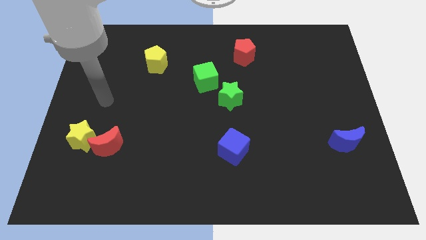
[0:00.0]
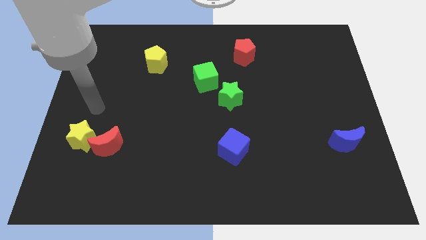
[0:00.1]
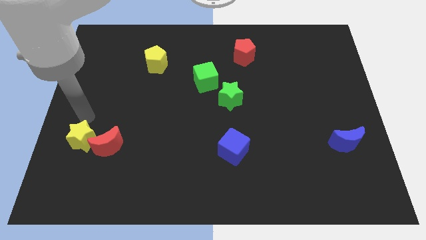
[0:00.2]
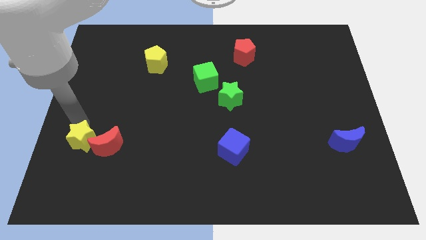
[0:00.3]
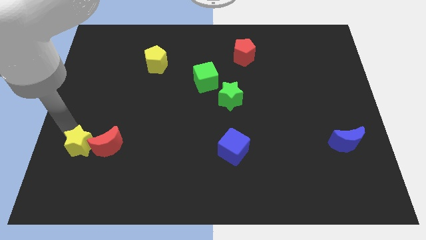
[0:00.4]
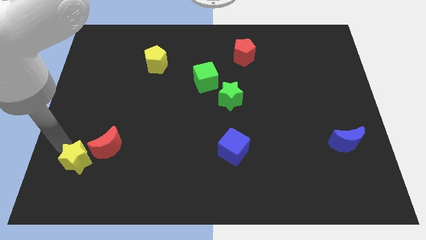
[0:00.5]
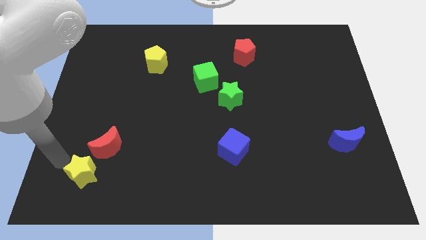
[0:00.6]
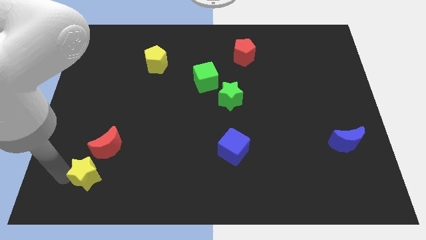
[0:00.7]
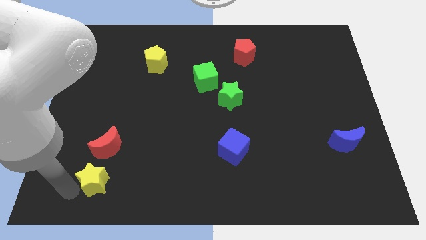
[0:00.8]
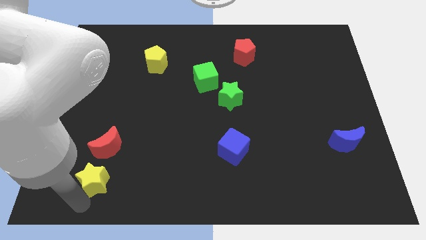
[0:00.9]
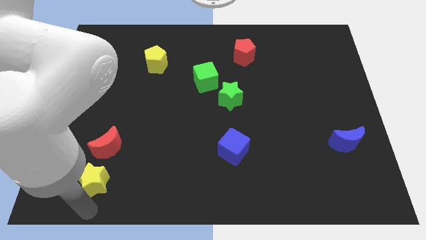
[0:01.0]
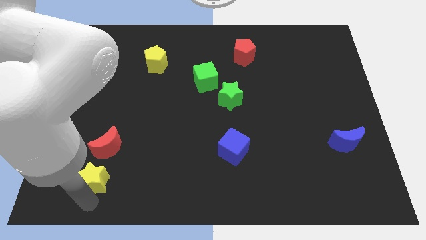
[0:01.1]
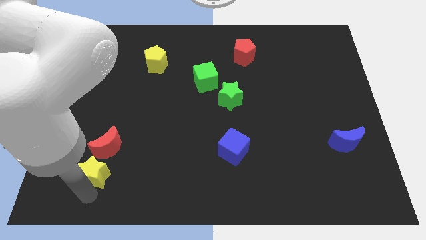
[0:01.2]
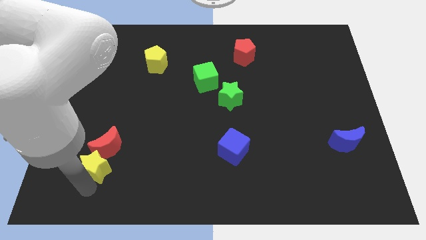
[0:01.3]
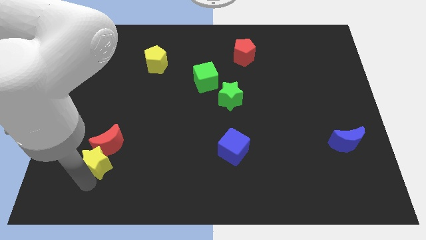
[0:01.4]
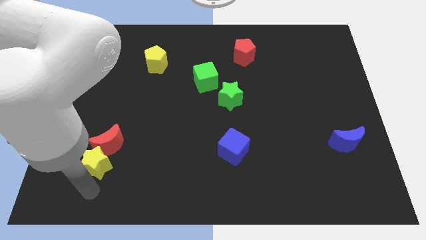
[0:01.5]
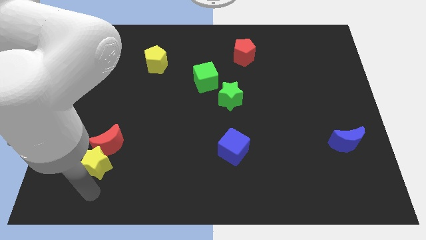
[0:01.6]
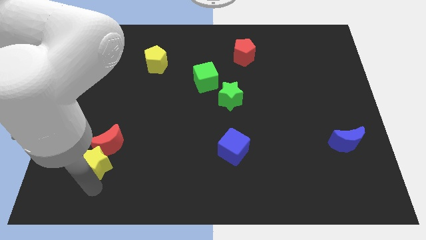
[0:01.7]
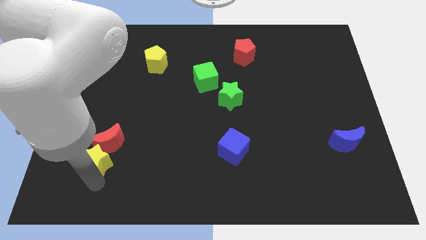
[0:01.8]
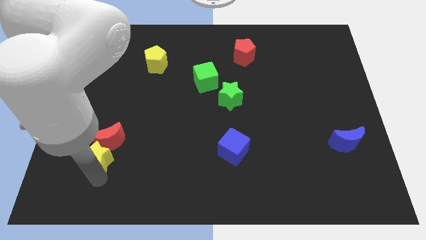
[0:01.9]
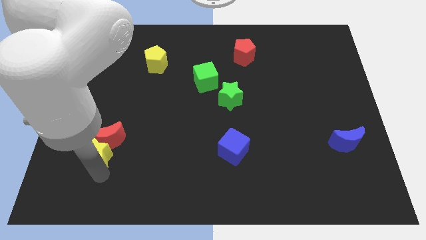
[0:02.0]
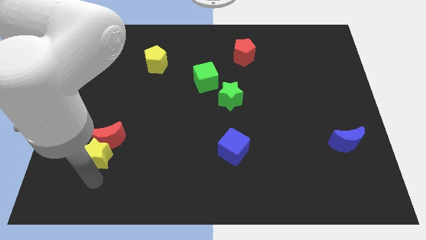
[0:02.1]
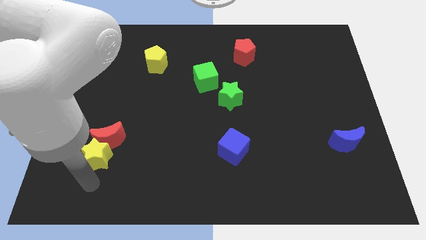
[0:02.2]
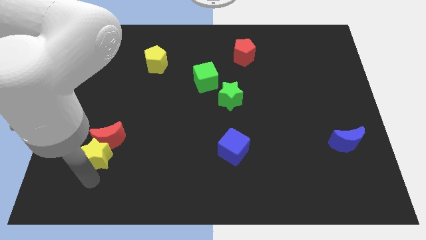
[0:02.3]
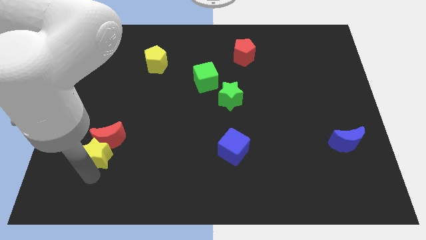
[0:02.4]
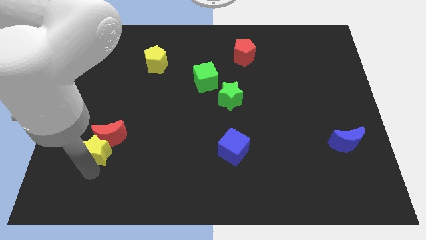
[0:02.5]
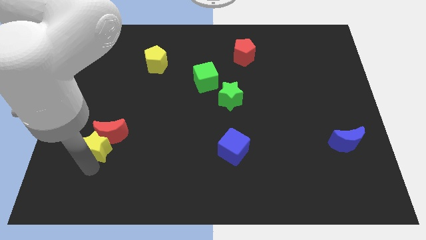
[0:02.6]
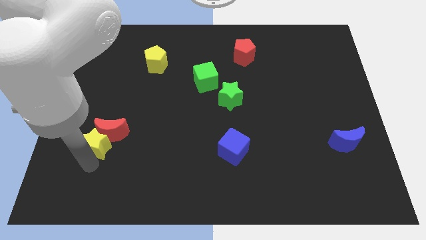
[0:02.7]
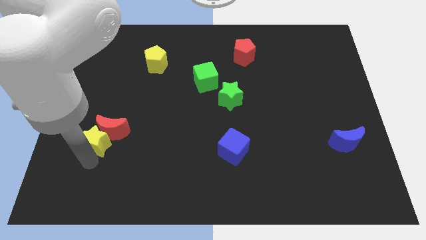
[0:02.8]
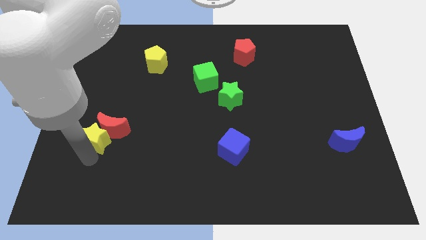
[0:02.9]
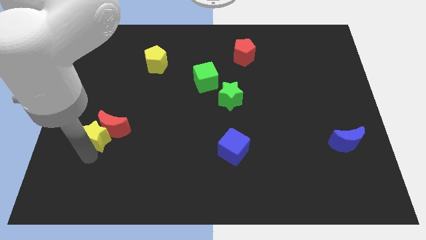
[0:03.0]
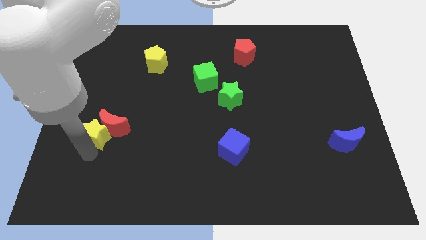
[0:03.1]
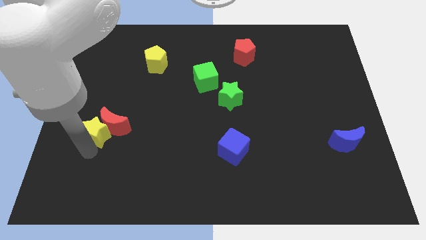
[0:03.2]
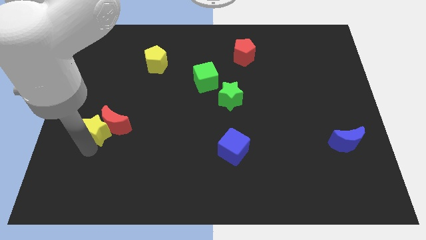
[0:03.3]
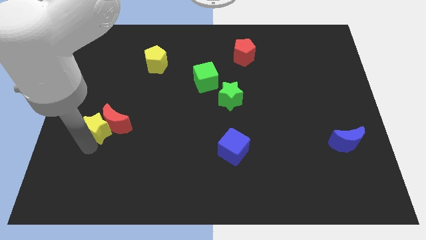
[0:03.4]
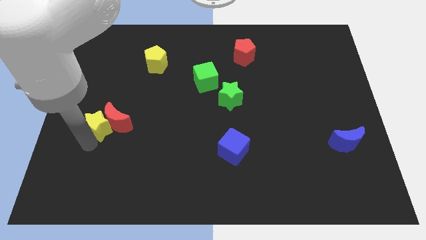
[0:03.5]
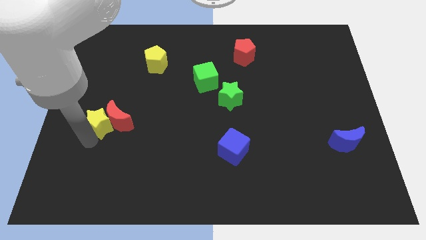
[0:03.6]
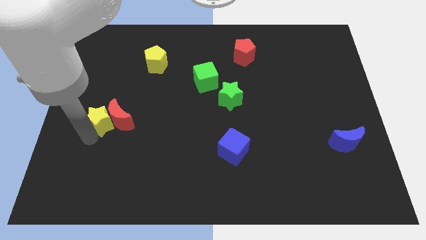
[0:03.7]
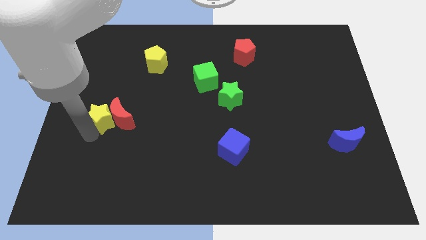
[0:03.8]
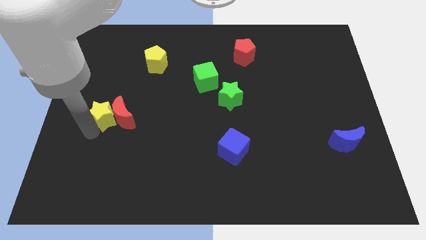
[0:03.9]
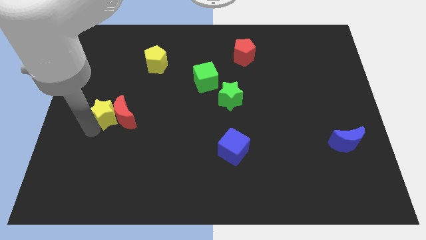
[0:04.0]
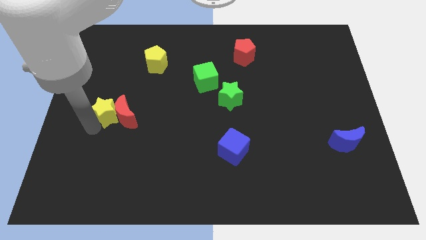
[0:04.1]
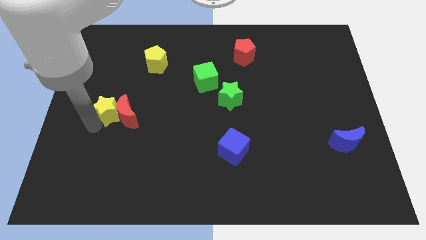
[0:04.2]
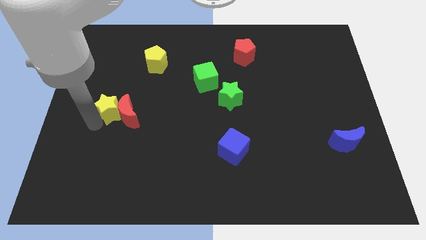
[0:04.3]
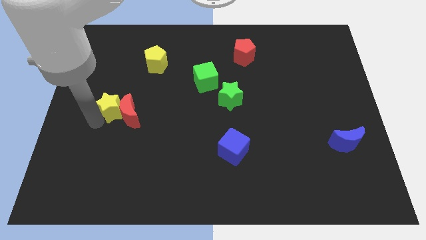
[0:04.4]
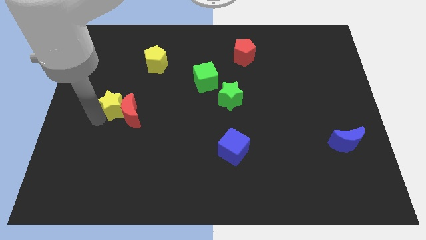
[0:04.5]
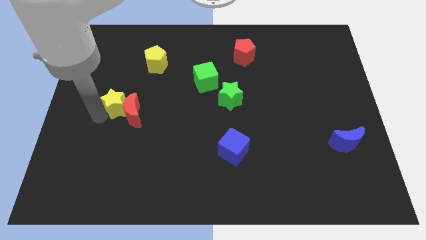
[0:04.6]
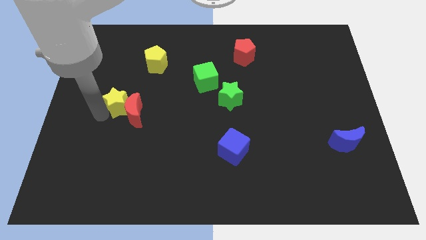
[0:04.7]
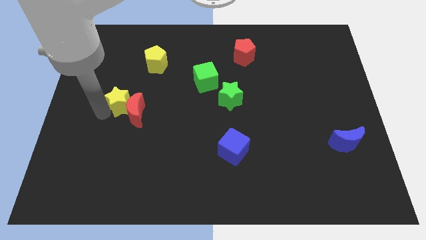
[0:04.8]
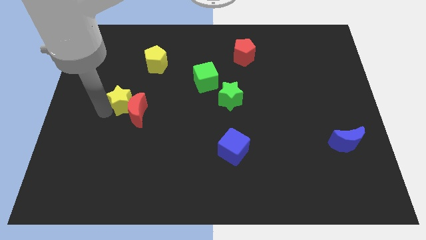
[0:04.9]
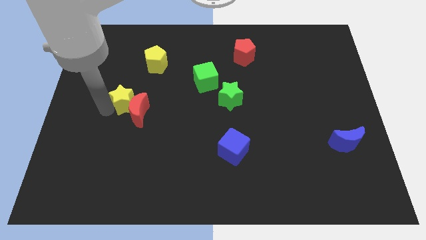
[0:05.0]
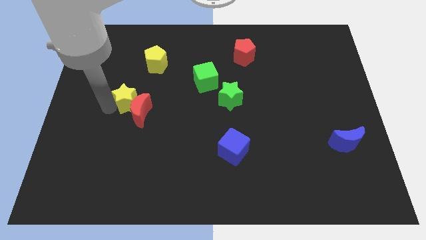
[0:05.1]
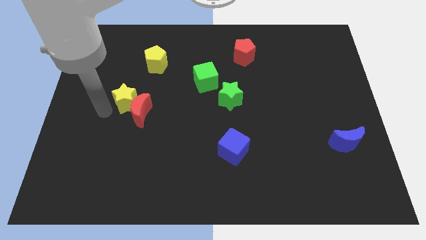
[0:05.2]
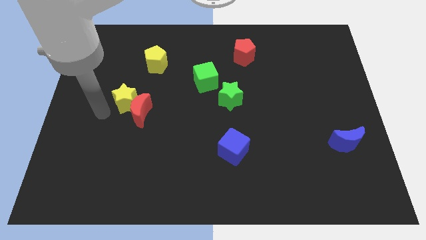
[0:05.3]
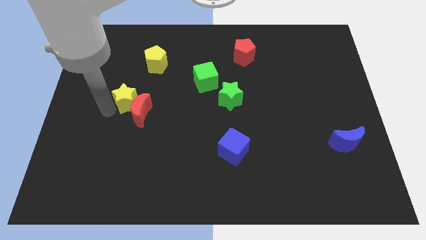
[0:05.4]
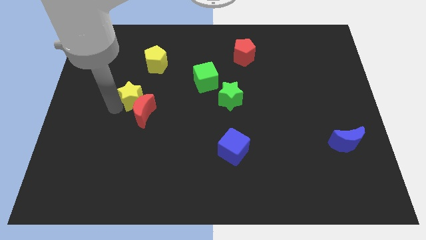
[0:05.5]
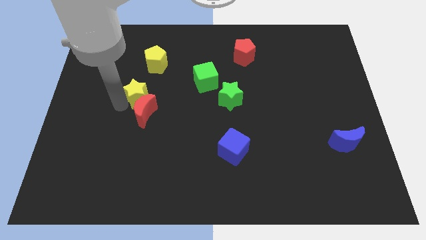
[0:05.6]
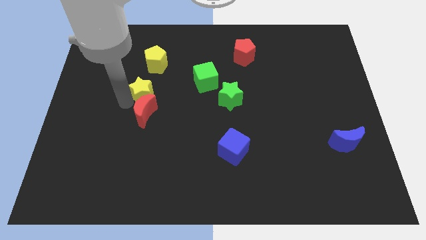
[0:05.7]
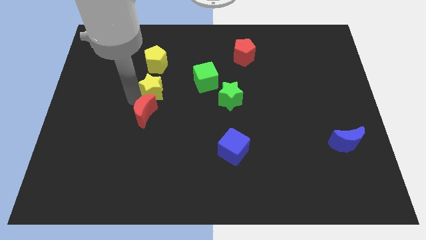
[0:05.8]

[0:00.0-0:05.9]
move the yellow star up and then to the right

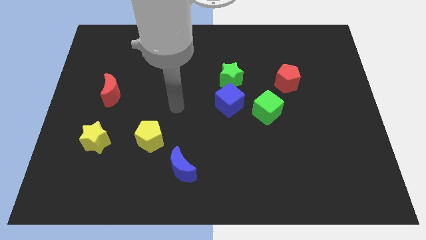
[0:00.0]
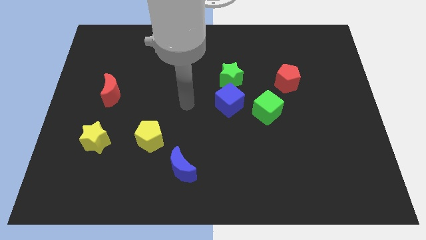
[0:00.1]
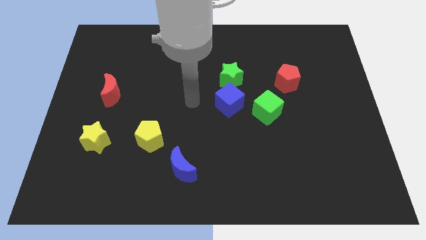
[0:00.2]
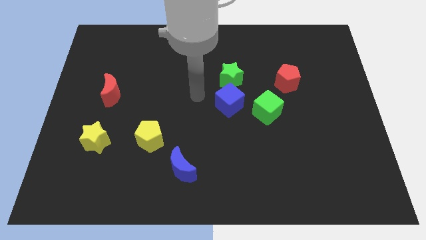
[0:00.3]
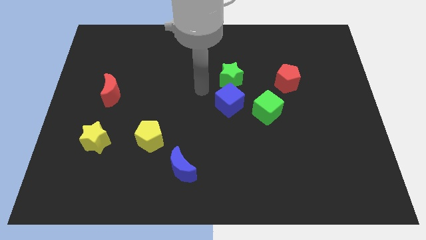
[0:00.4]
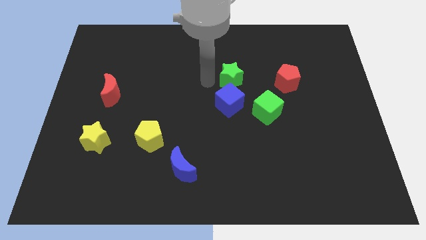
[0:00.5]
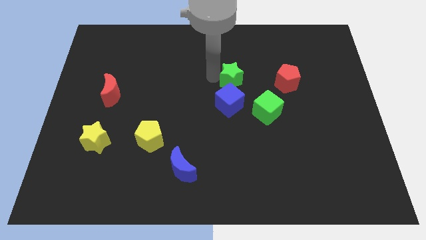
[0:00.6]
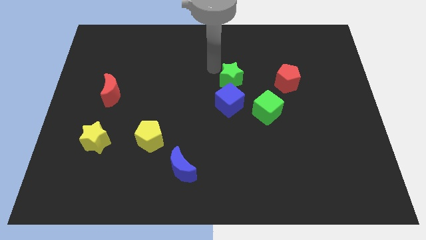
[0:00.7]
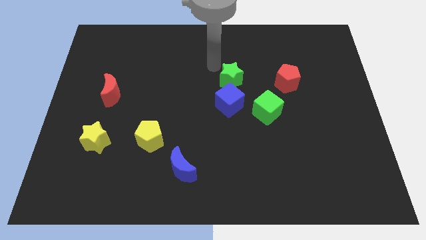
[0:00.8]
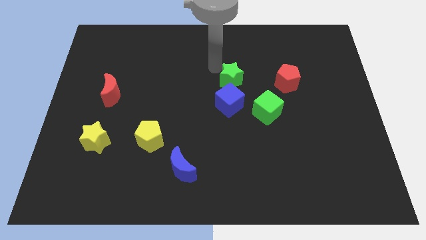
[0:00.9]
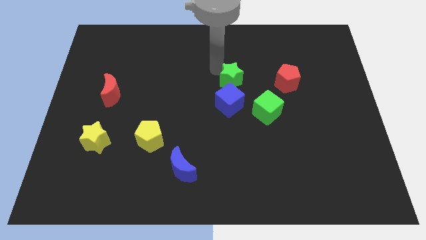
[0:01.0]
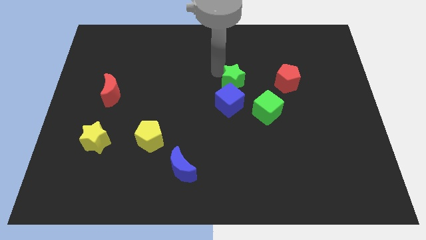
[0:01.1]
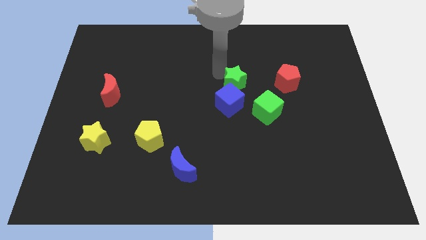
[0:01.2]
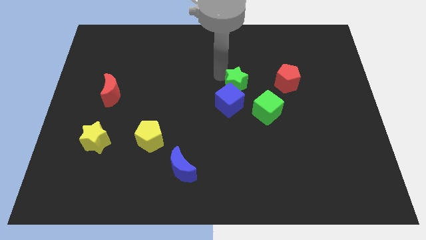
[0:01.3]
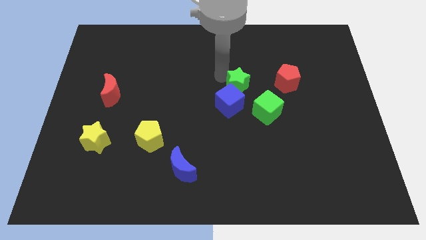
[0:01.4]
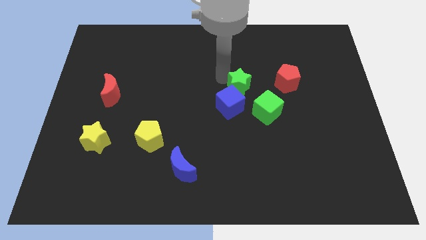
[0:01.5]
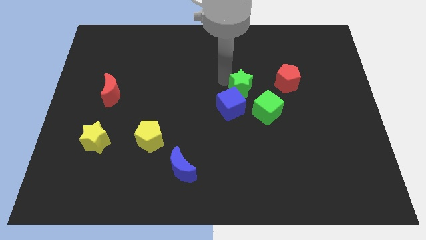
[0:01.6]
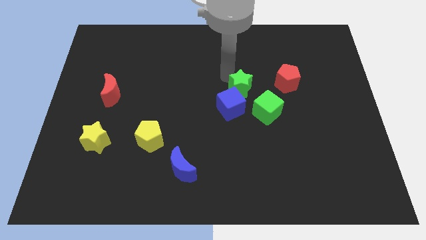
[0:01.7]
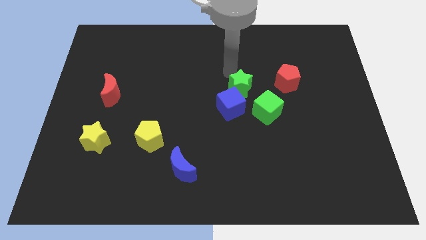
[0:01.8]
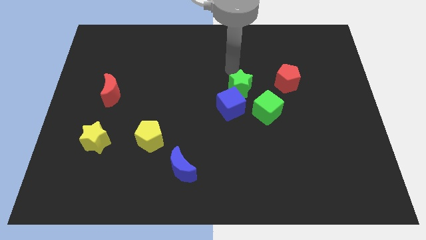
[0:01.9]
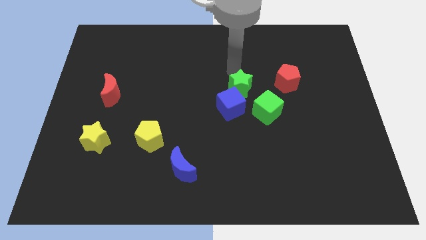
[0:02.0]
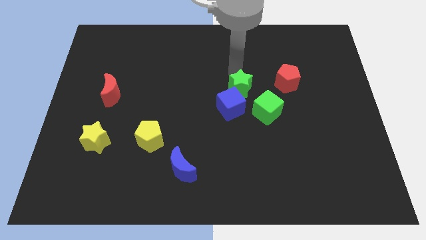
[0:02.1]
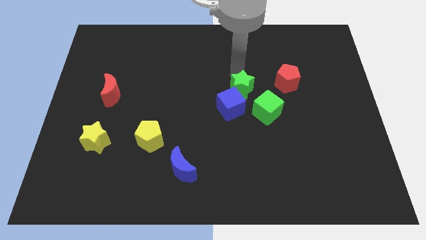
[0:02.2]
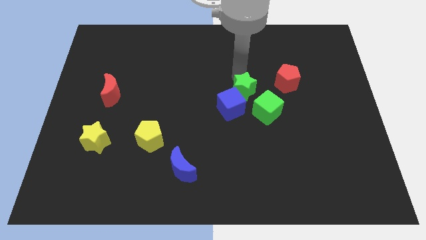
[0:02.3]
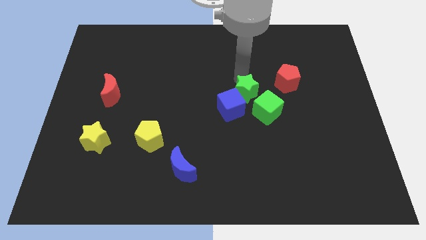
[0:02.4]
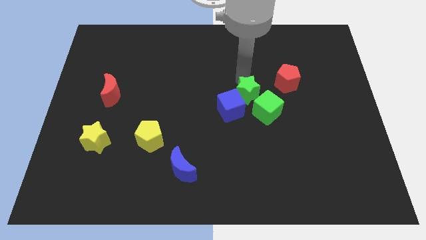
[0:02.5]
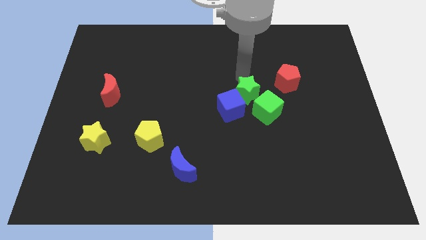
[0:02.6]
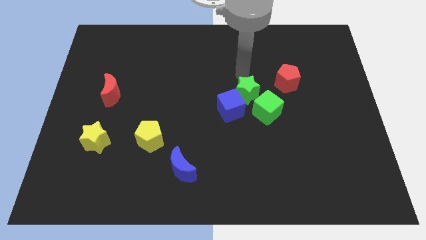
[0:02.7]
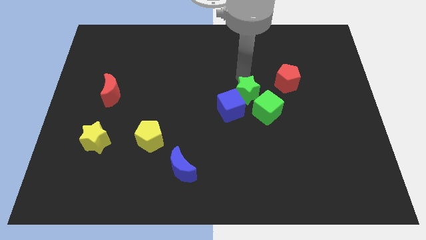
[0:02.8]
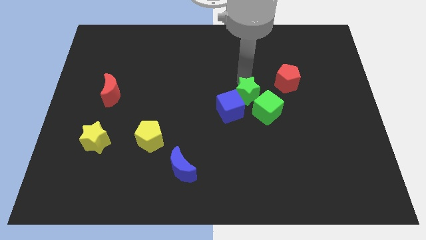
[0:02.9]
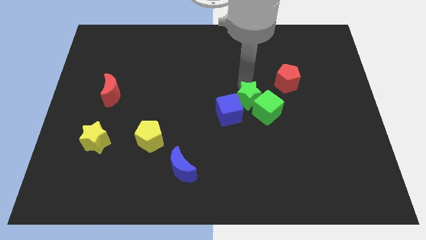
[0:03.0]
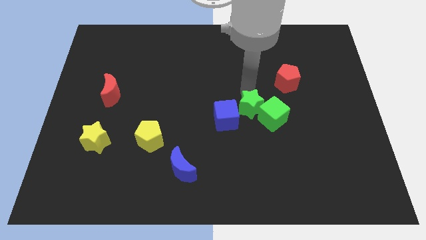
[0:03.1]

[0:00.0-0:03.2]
slightly push the green star down
